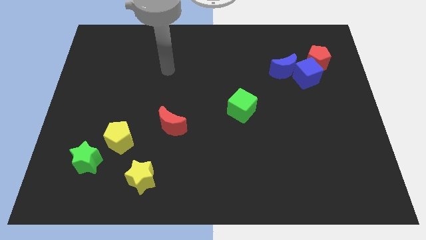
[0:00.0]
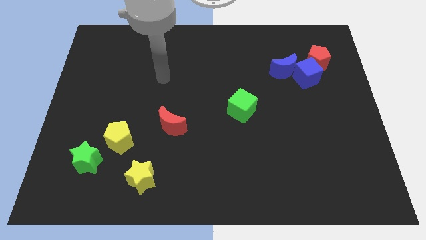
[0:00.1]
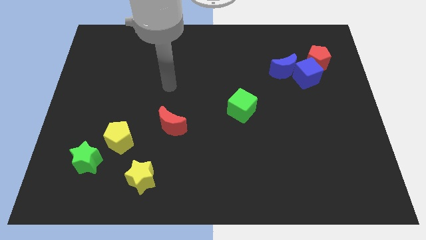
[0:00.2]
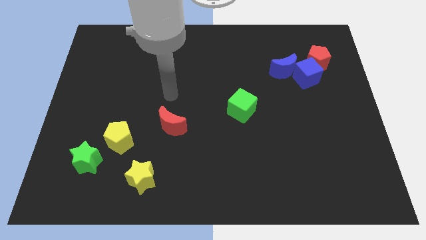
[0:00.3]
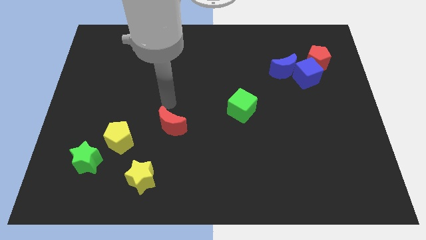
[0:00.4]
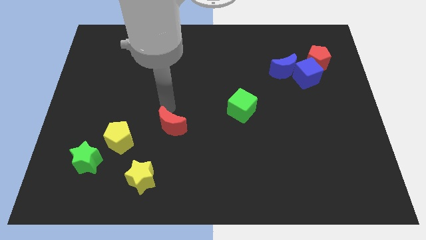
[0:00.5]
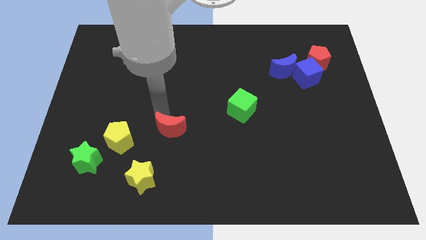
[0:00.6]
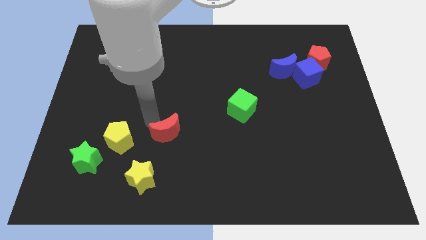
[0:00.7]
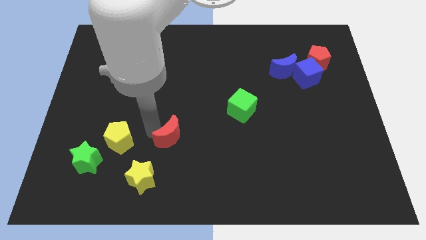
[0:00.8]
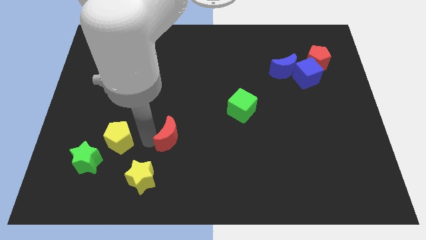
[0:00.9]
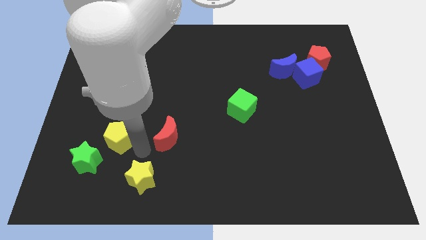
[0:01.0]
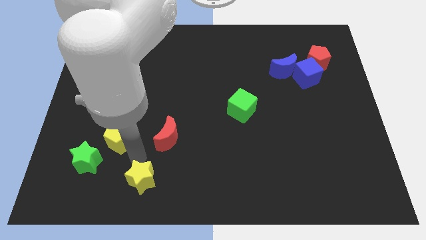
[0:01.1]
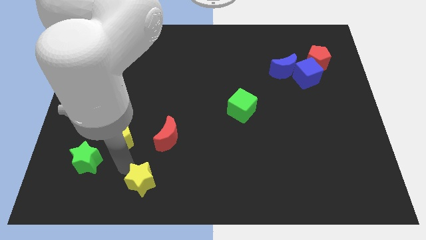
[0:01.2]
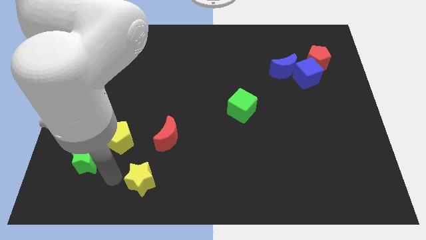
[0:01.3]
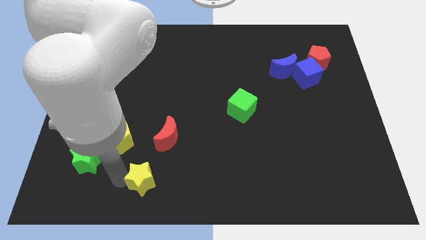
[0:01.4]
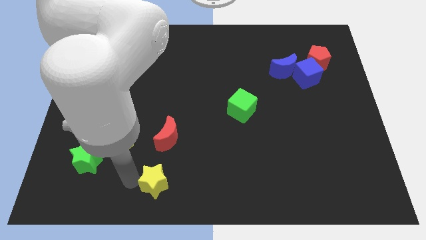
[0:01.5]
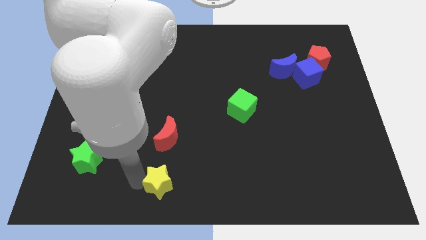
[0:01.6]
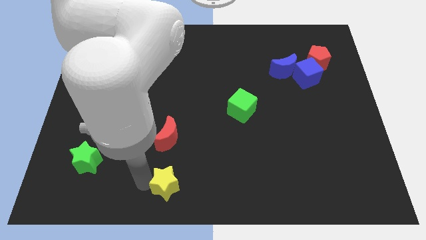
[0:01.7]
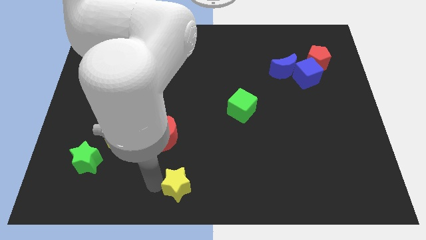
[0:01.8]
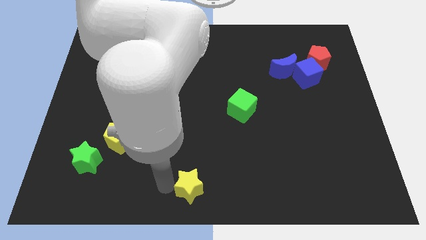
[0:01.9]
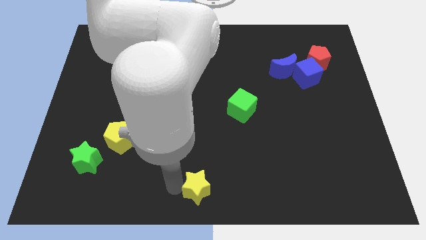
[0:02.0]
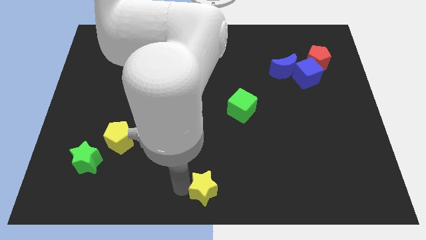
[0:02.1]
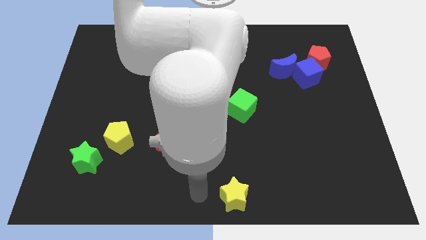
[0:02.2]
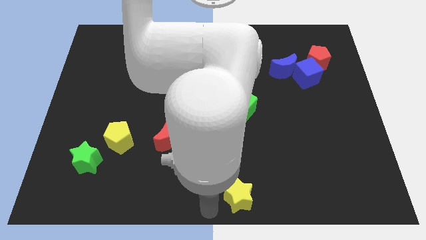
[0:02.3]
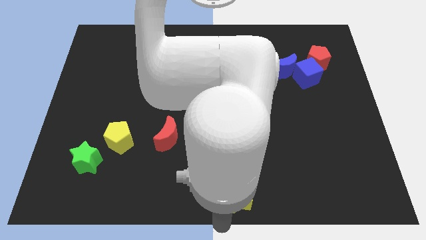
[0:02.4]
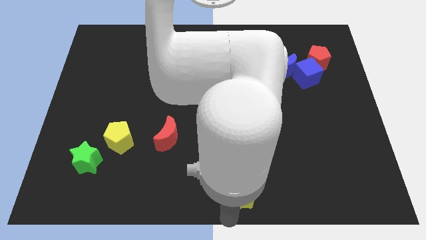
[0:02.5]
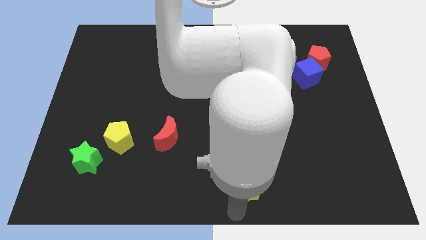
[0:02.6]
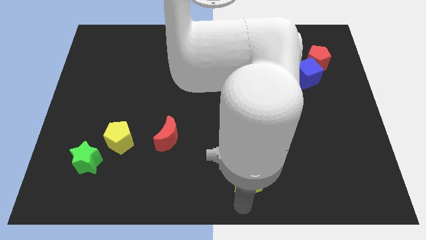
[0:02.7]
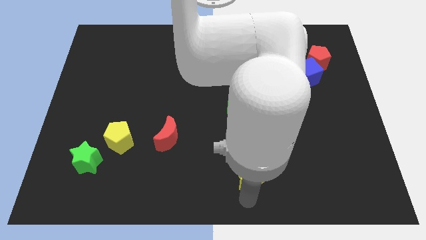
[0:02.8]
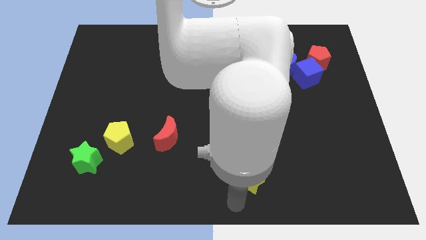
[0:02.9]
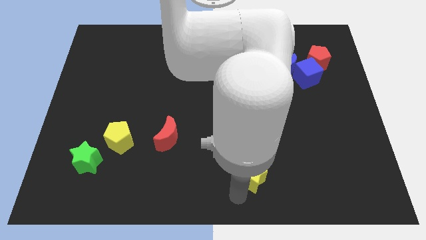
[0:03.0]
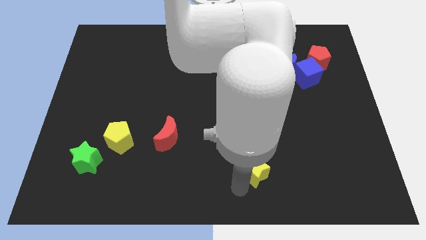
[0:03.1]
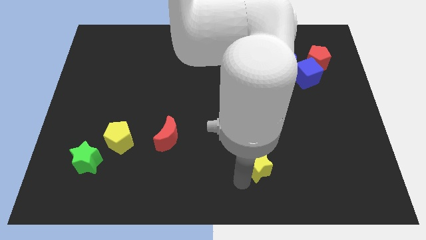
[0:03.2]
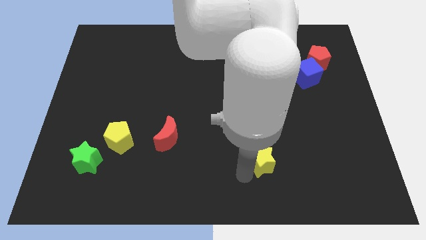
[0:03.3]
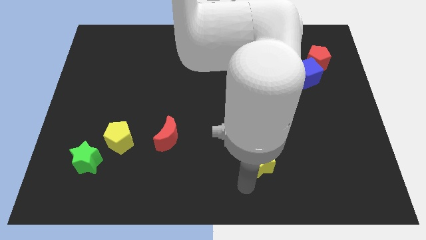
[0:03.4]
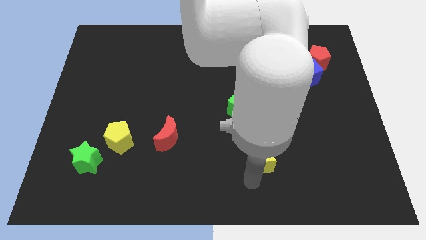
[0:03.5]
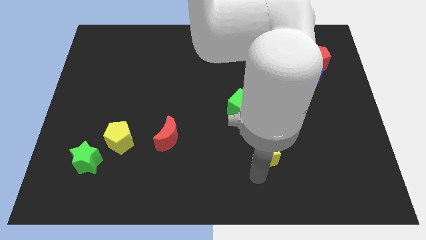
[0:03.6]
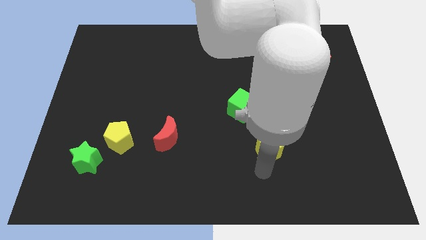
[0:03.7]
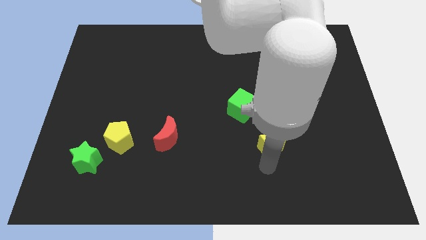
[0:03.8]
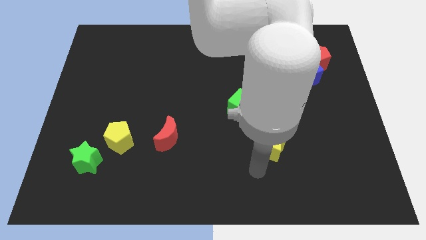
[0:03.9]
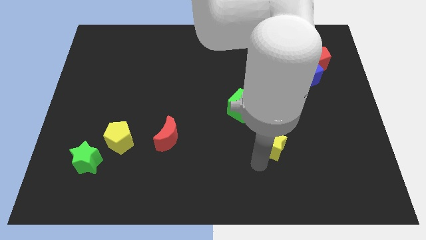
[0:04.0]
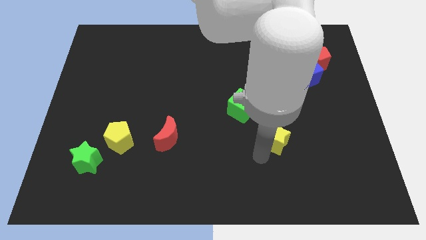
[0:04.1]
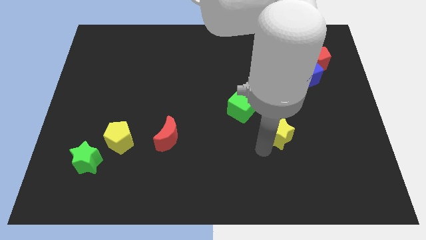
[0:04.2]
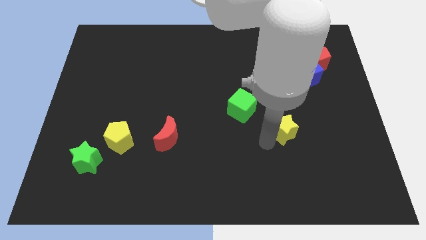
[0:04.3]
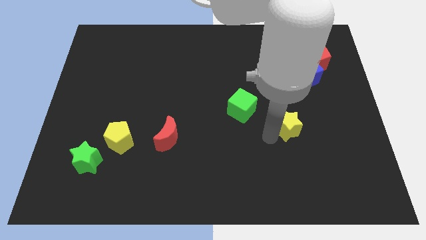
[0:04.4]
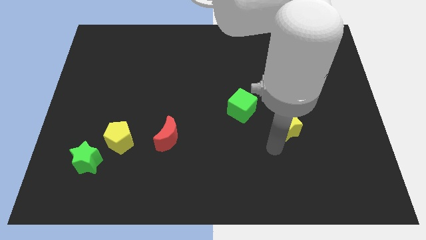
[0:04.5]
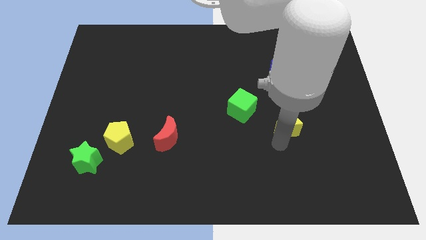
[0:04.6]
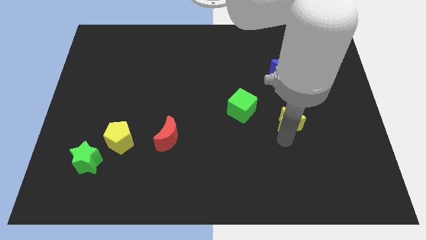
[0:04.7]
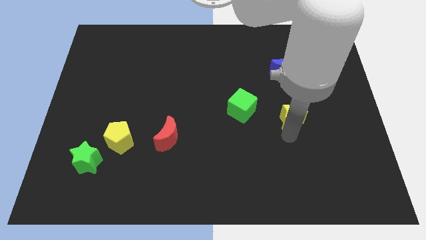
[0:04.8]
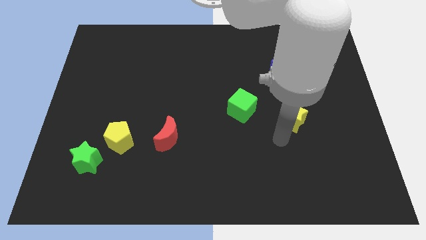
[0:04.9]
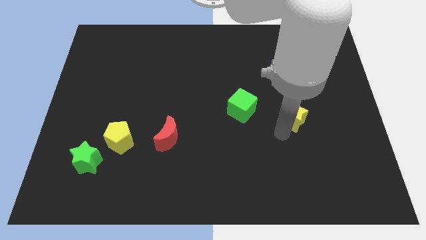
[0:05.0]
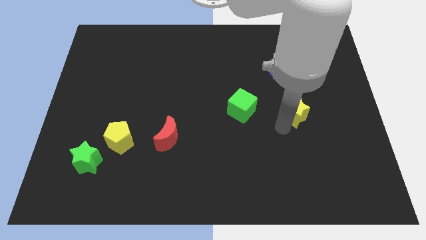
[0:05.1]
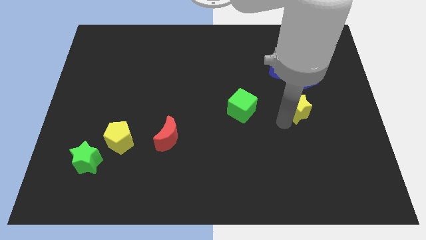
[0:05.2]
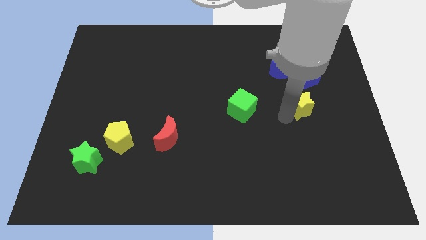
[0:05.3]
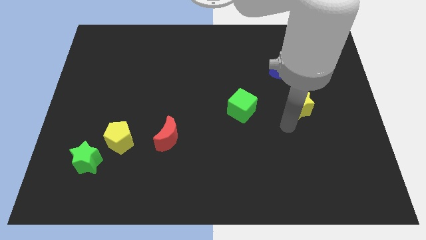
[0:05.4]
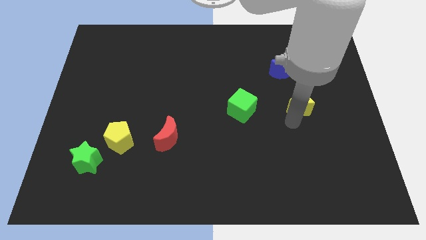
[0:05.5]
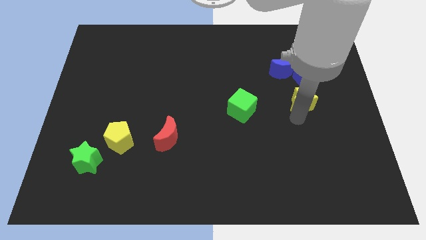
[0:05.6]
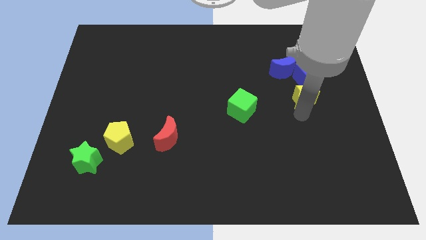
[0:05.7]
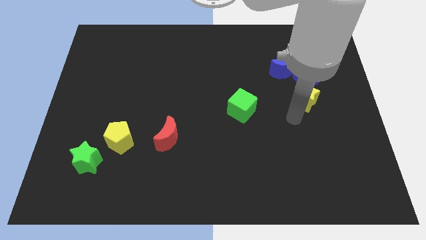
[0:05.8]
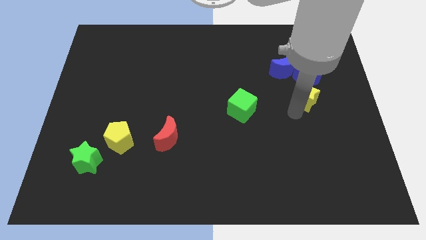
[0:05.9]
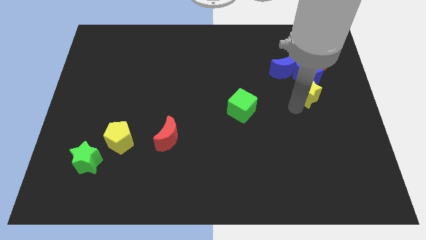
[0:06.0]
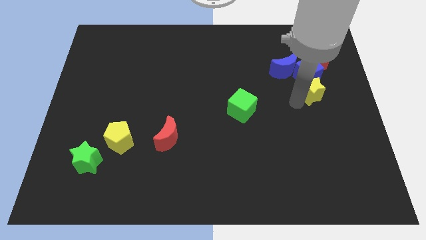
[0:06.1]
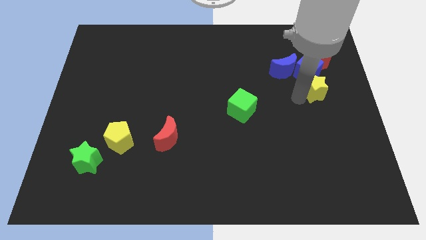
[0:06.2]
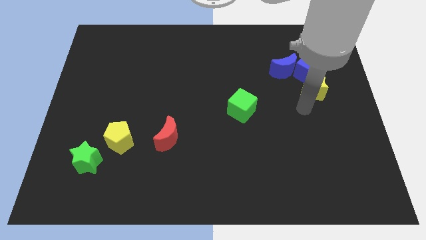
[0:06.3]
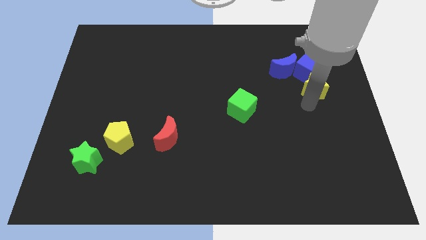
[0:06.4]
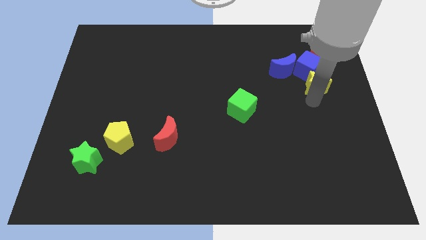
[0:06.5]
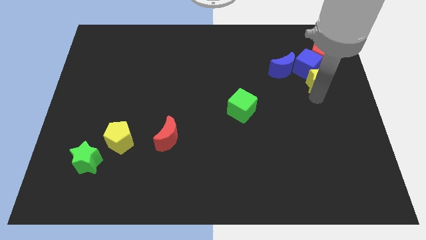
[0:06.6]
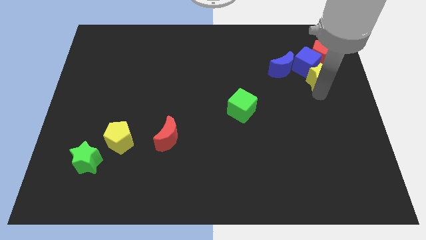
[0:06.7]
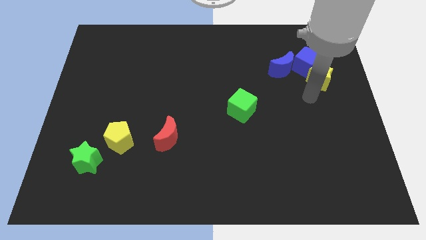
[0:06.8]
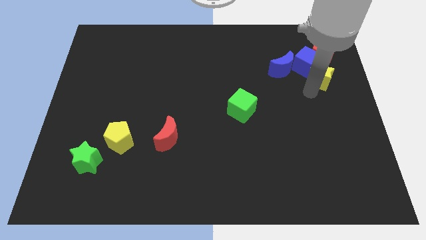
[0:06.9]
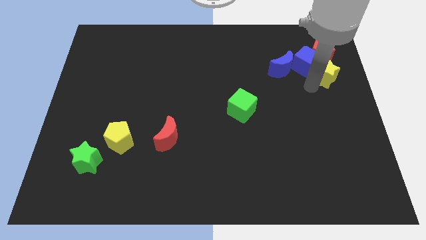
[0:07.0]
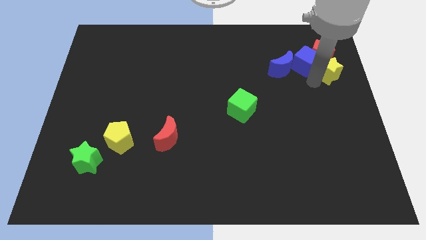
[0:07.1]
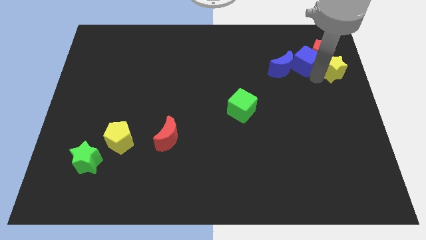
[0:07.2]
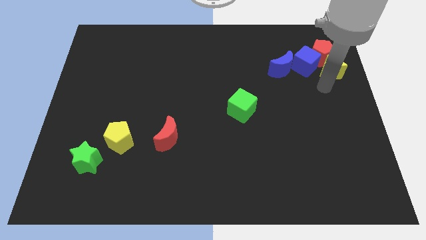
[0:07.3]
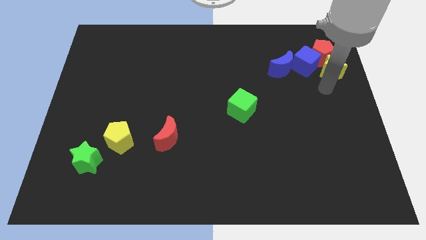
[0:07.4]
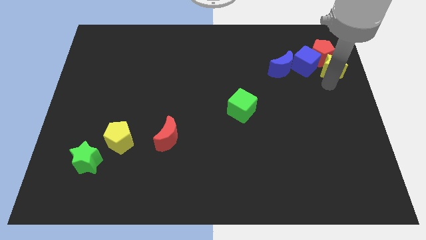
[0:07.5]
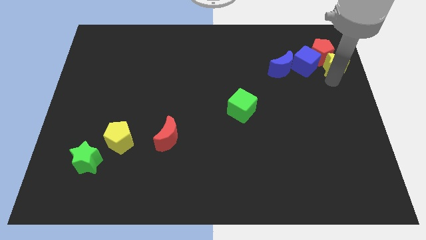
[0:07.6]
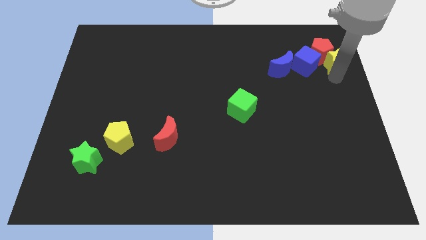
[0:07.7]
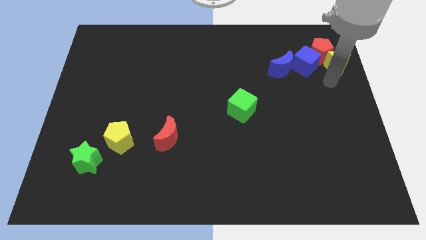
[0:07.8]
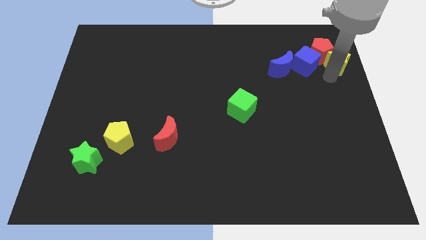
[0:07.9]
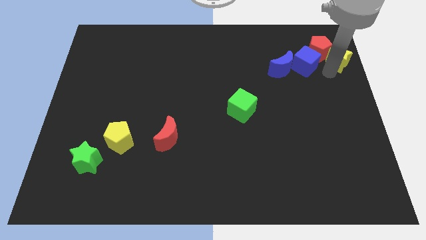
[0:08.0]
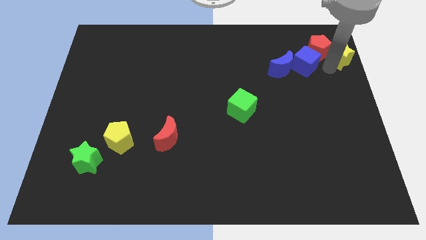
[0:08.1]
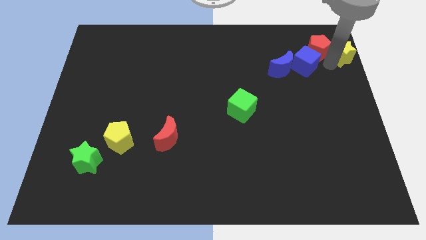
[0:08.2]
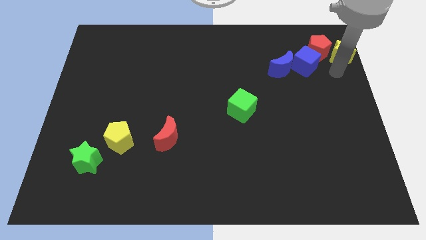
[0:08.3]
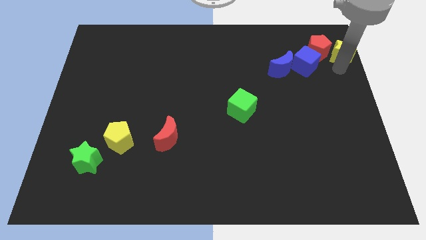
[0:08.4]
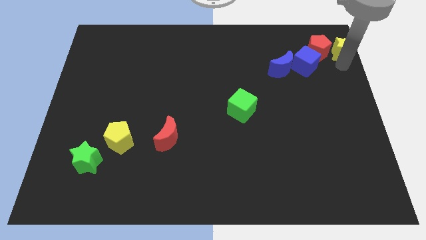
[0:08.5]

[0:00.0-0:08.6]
slide the yellow star to the top right
